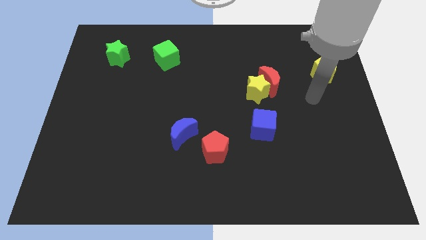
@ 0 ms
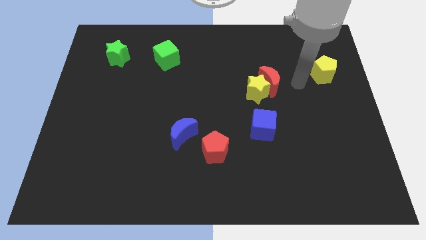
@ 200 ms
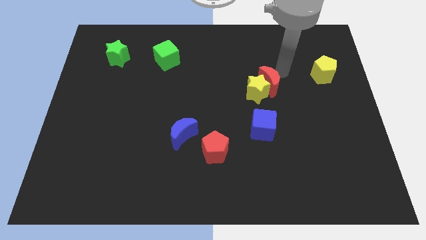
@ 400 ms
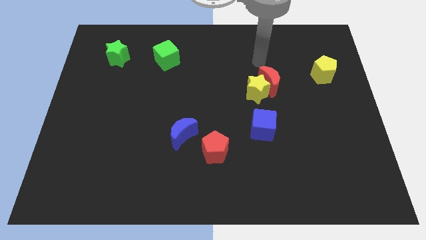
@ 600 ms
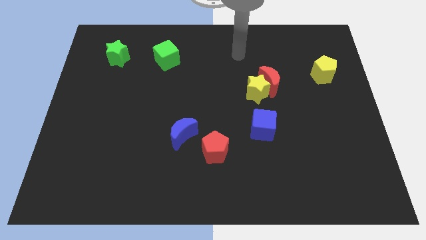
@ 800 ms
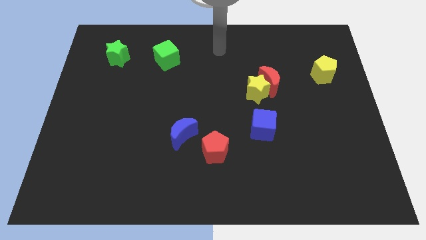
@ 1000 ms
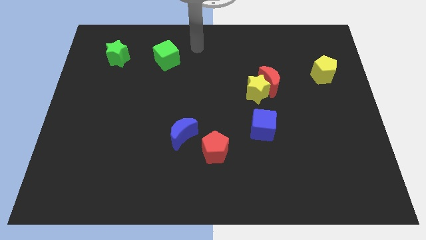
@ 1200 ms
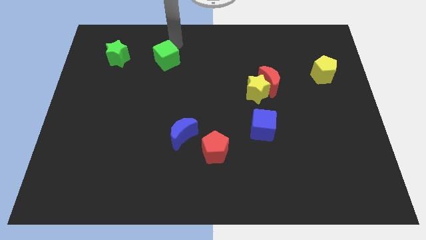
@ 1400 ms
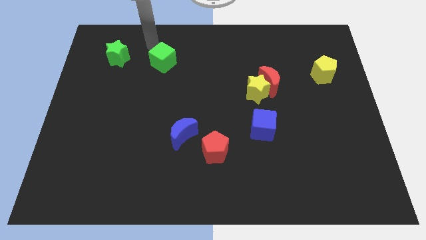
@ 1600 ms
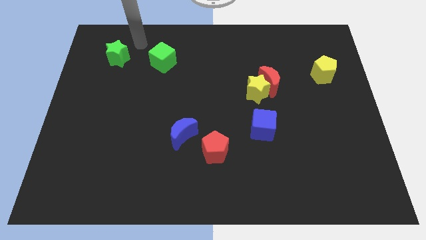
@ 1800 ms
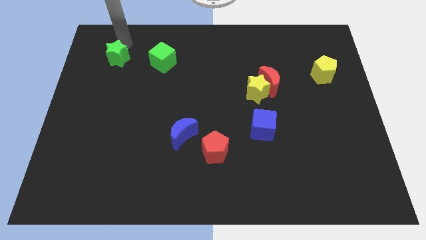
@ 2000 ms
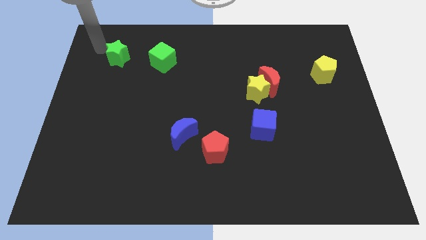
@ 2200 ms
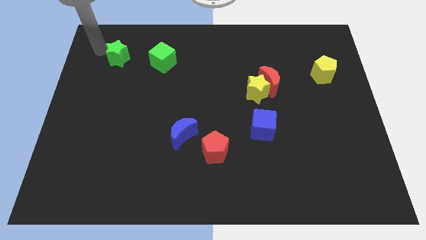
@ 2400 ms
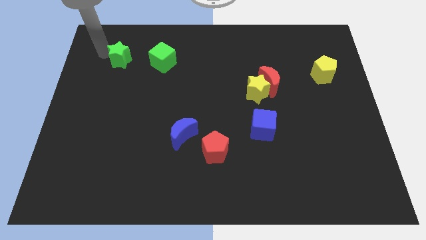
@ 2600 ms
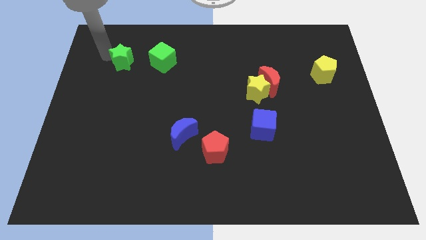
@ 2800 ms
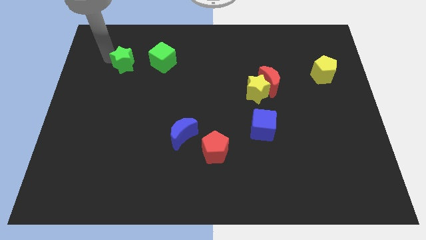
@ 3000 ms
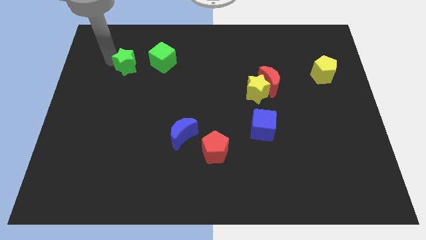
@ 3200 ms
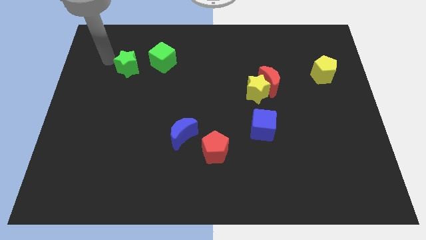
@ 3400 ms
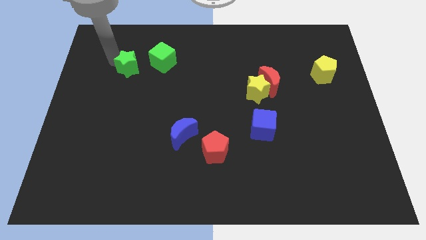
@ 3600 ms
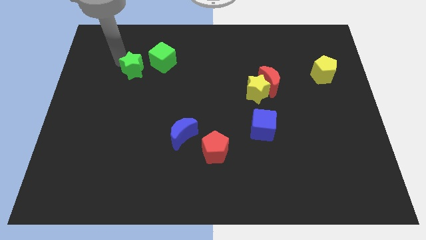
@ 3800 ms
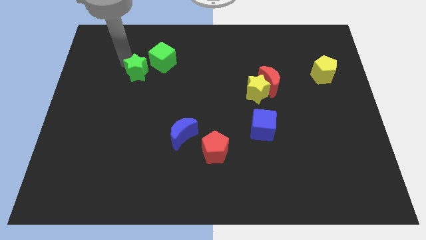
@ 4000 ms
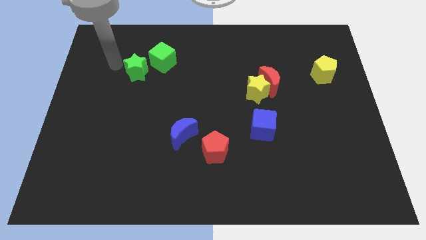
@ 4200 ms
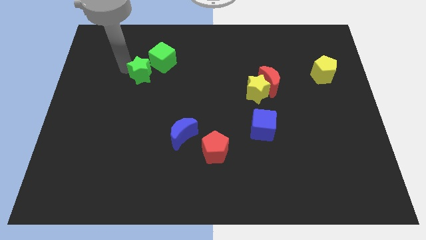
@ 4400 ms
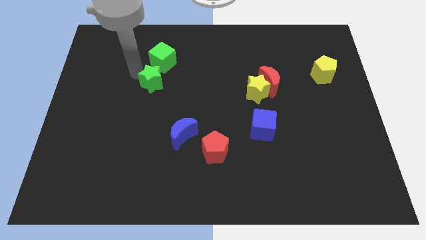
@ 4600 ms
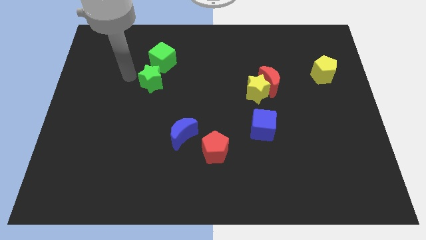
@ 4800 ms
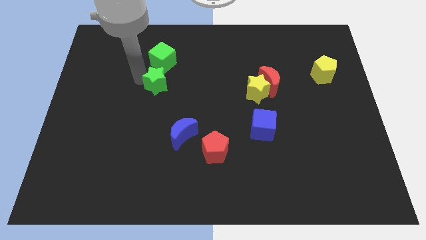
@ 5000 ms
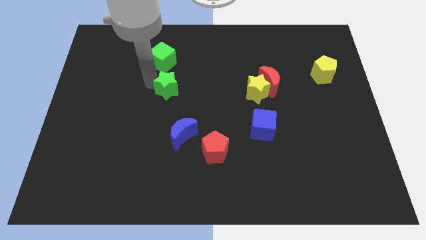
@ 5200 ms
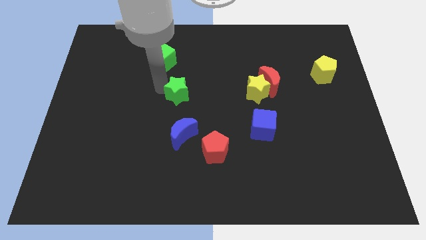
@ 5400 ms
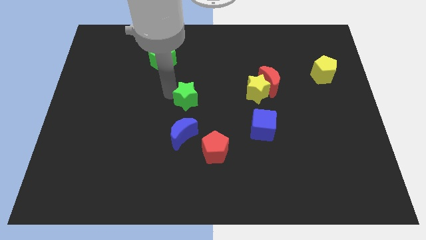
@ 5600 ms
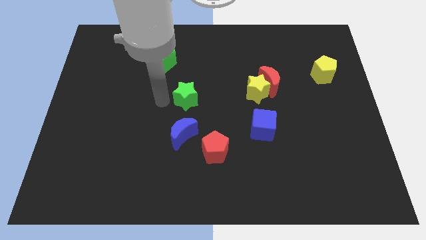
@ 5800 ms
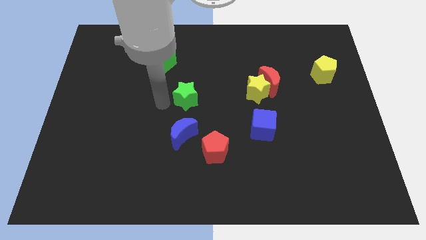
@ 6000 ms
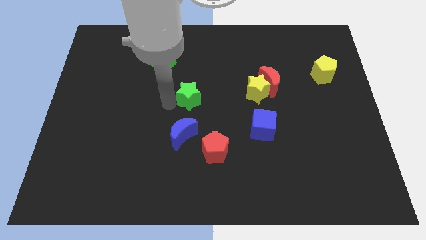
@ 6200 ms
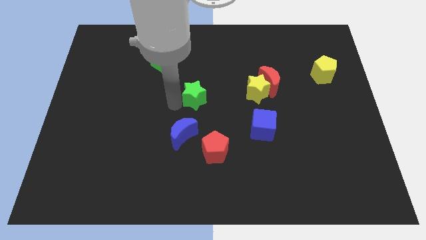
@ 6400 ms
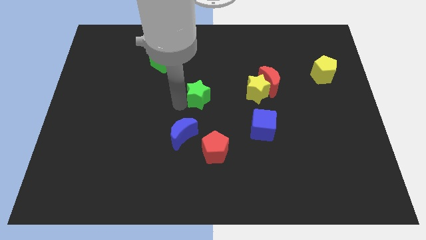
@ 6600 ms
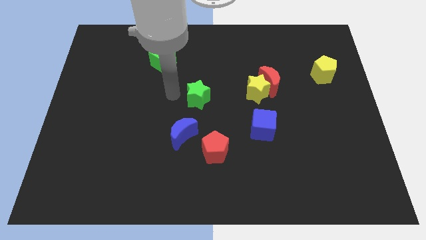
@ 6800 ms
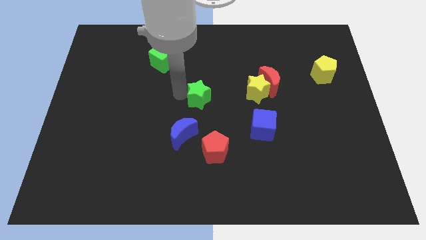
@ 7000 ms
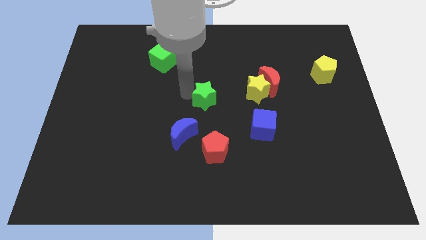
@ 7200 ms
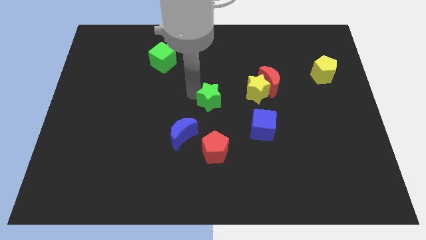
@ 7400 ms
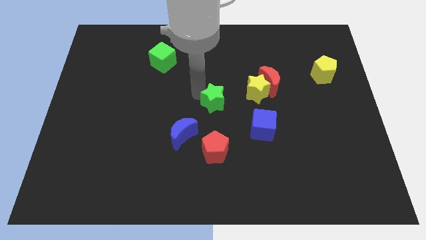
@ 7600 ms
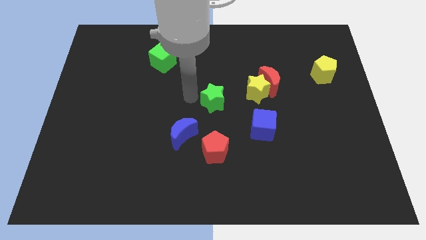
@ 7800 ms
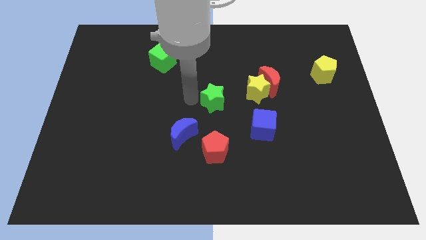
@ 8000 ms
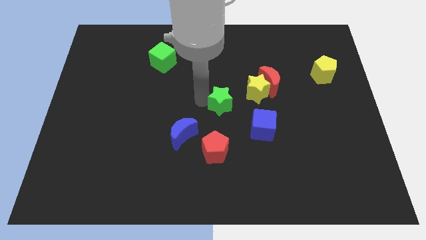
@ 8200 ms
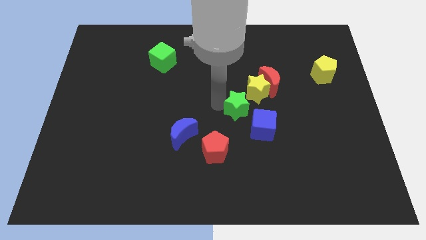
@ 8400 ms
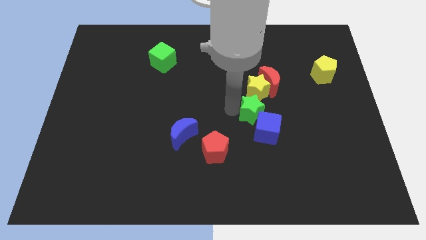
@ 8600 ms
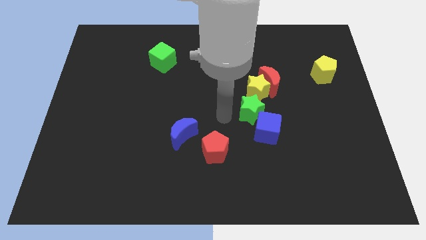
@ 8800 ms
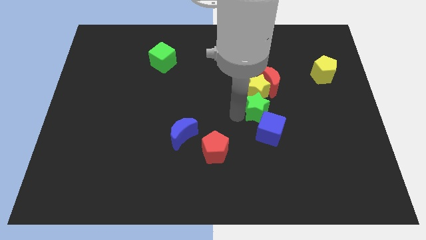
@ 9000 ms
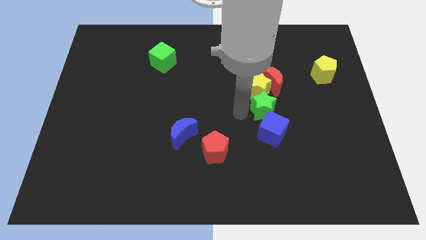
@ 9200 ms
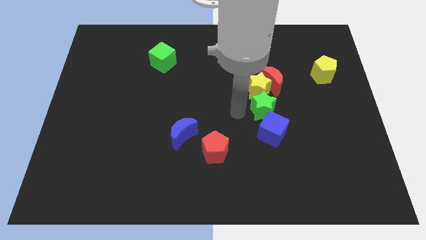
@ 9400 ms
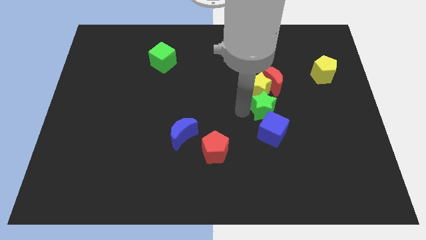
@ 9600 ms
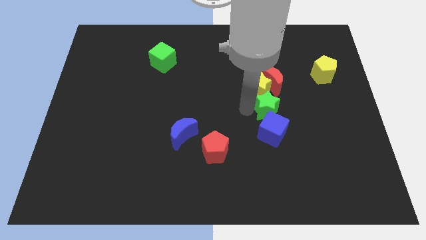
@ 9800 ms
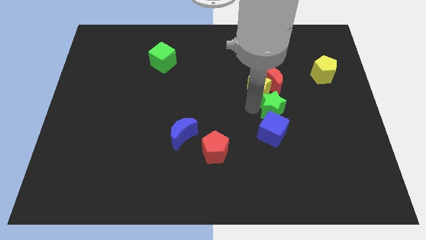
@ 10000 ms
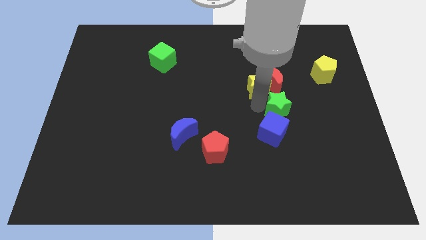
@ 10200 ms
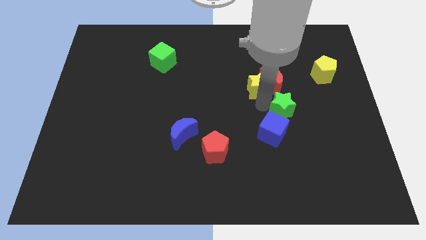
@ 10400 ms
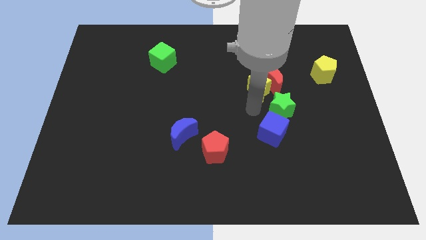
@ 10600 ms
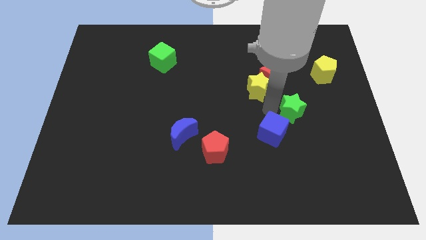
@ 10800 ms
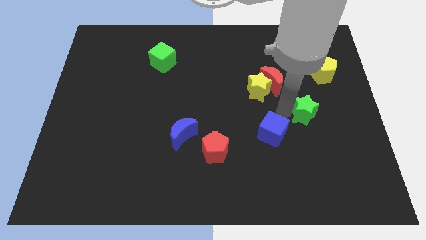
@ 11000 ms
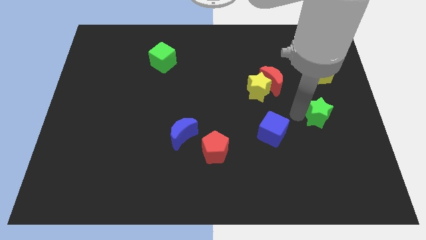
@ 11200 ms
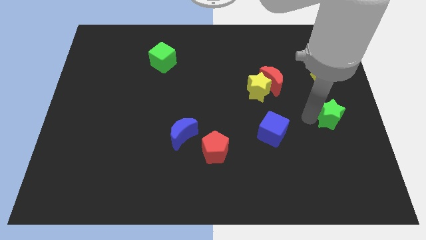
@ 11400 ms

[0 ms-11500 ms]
move the green star to the center right
